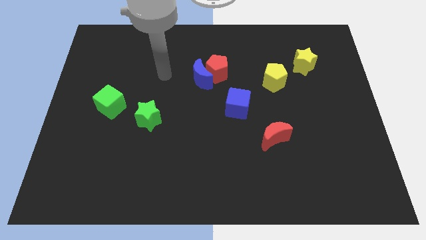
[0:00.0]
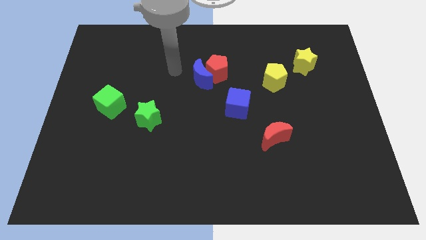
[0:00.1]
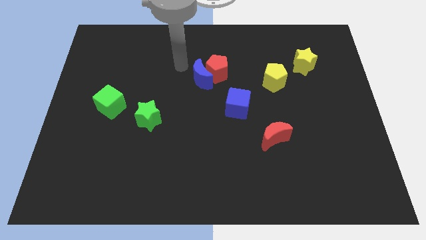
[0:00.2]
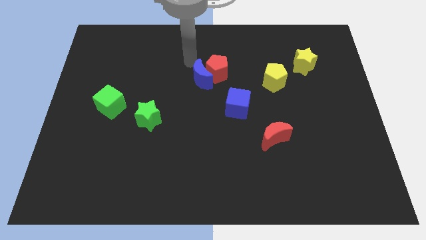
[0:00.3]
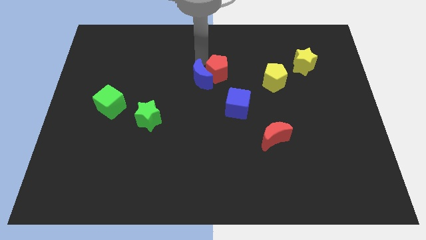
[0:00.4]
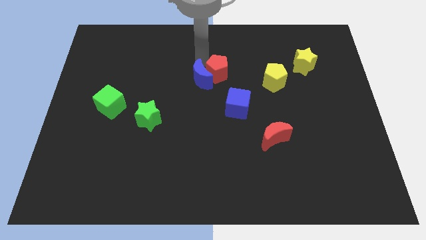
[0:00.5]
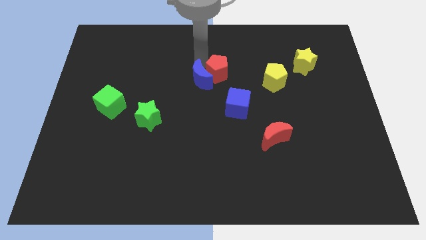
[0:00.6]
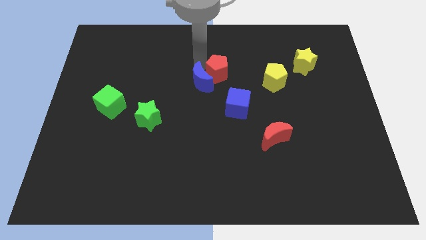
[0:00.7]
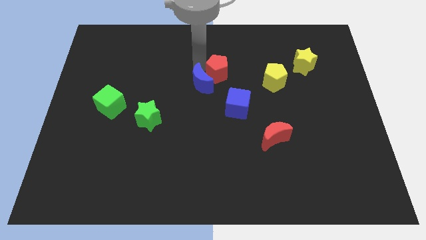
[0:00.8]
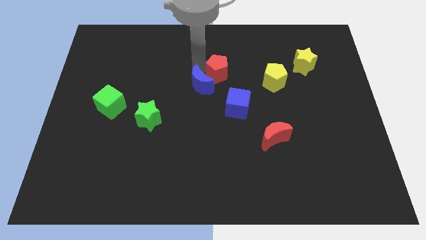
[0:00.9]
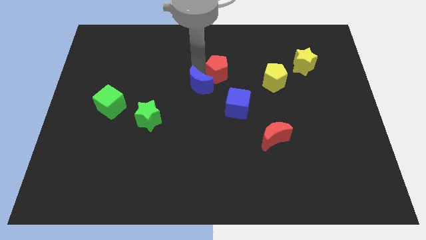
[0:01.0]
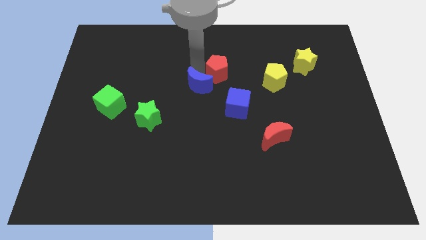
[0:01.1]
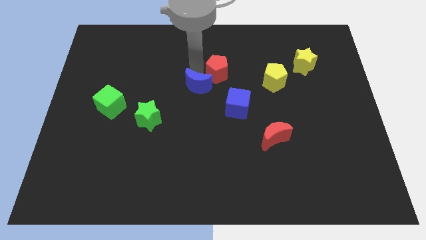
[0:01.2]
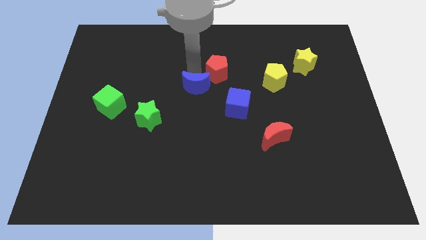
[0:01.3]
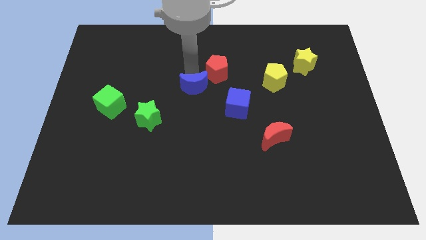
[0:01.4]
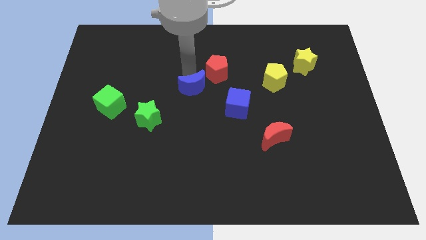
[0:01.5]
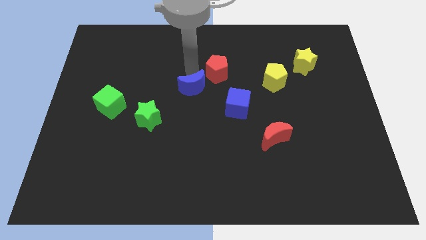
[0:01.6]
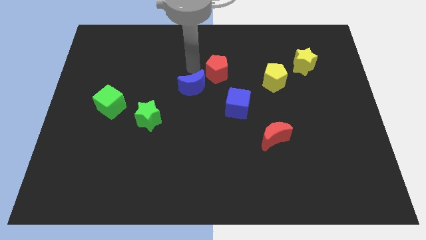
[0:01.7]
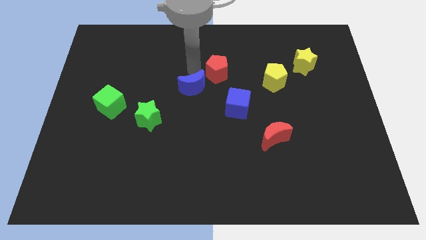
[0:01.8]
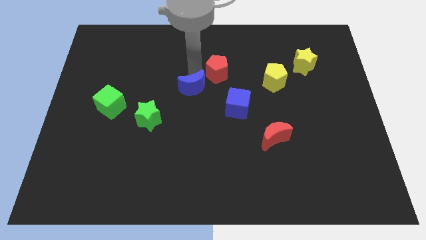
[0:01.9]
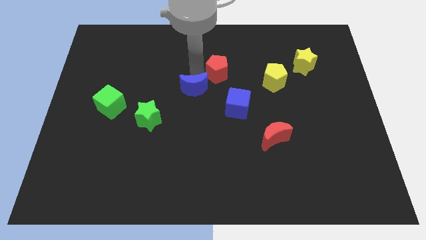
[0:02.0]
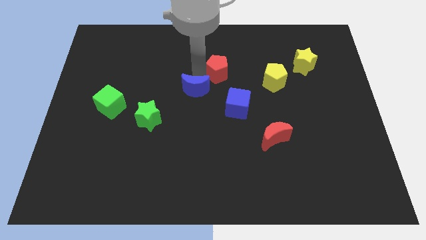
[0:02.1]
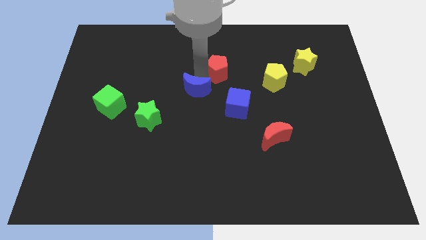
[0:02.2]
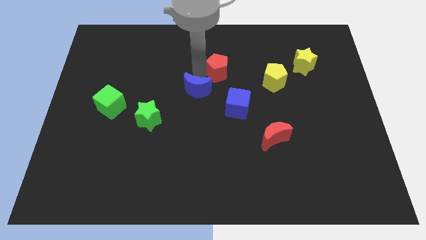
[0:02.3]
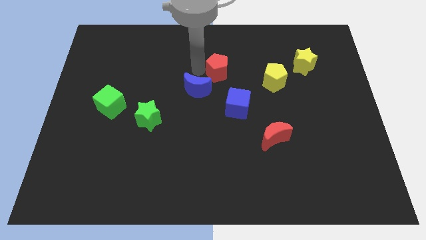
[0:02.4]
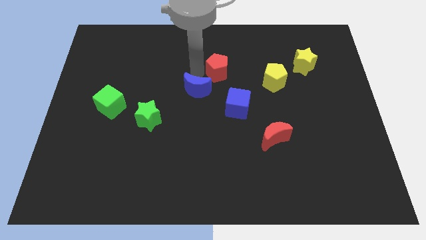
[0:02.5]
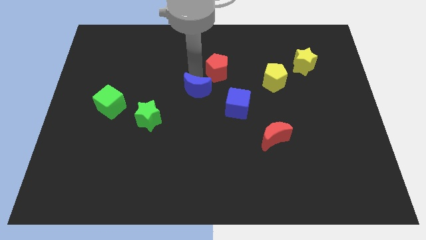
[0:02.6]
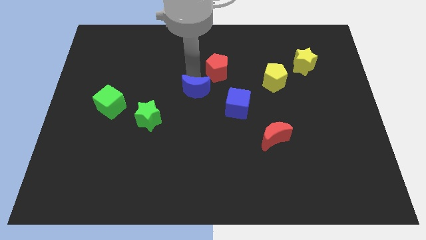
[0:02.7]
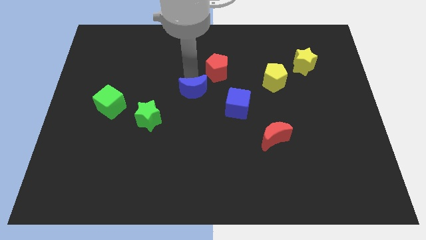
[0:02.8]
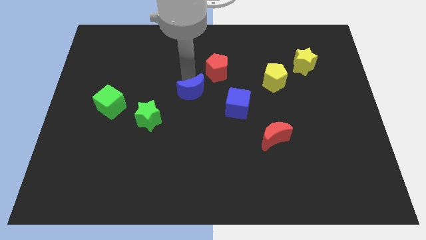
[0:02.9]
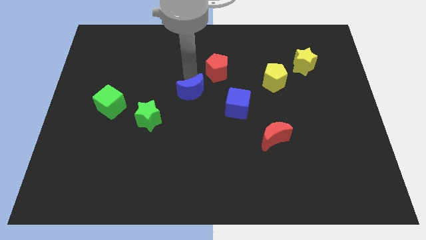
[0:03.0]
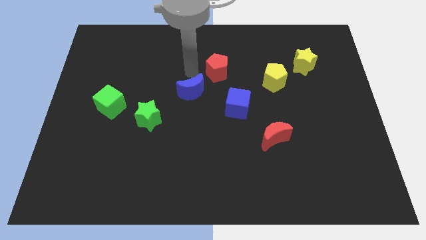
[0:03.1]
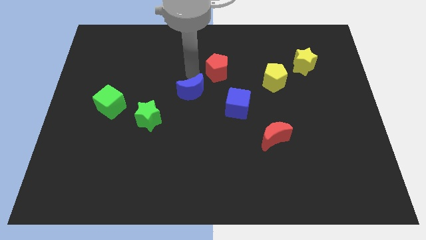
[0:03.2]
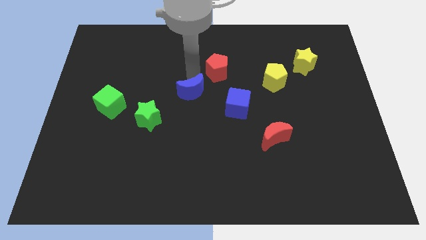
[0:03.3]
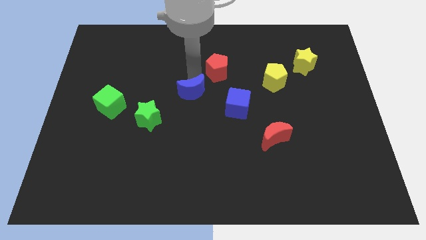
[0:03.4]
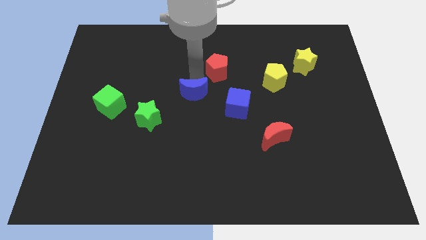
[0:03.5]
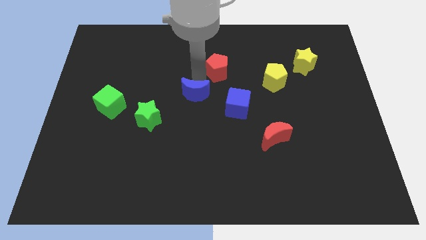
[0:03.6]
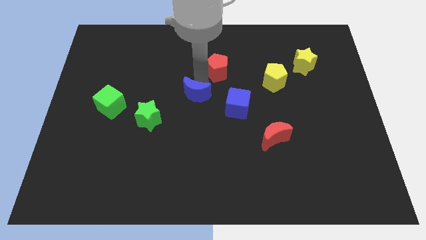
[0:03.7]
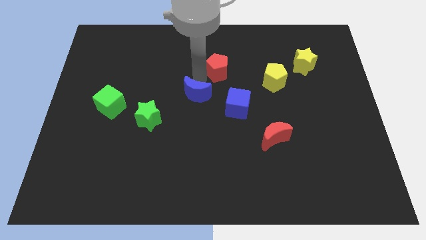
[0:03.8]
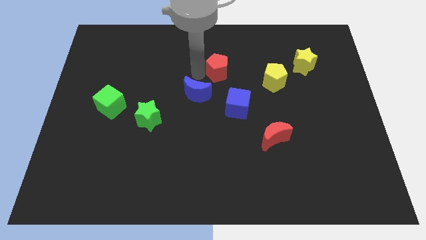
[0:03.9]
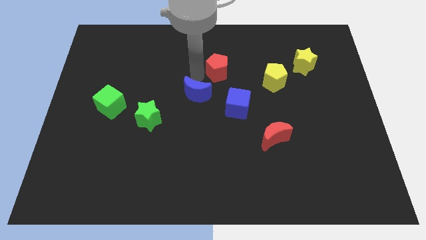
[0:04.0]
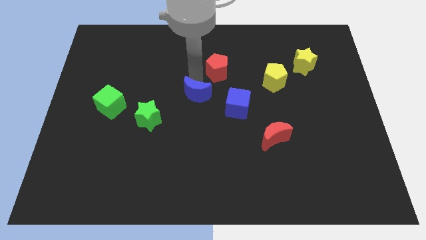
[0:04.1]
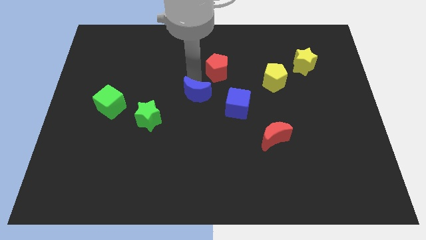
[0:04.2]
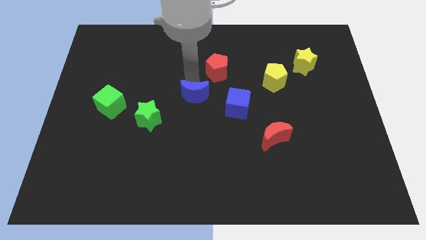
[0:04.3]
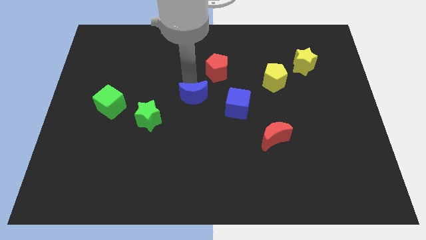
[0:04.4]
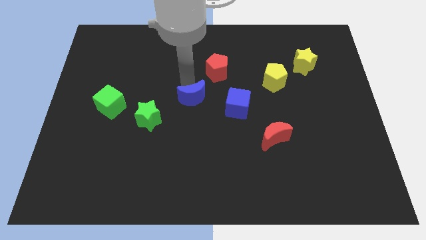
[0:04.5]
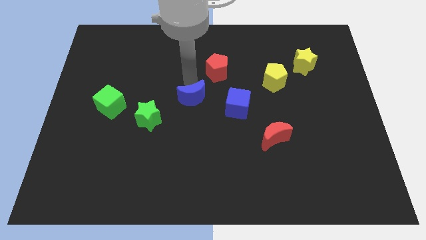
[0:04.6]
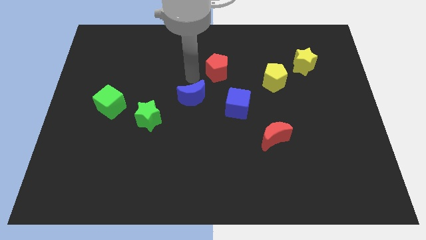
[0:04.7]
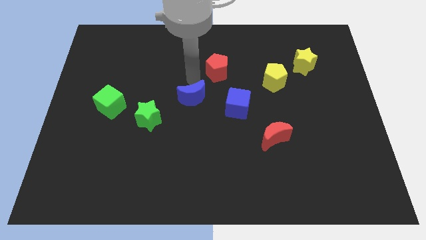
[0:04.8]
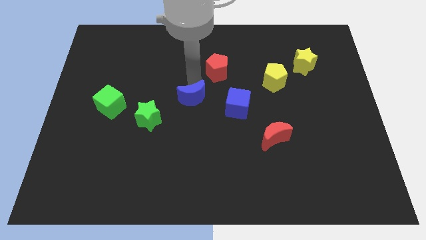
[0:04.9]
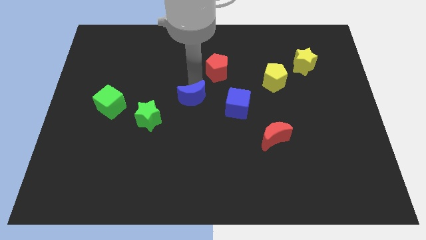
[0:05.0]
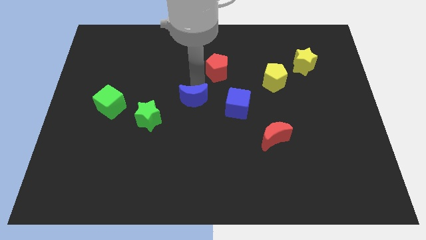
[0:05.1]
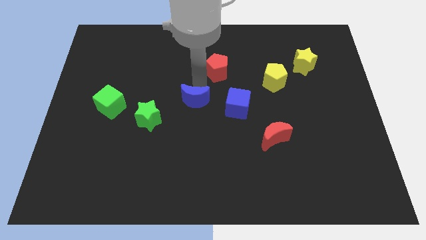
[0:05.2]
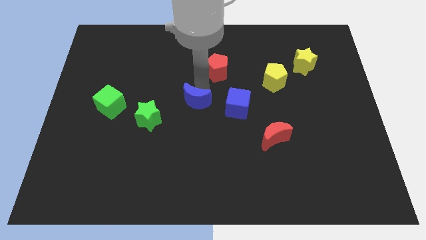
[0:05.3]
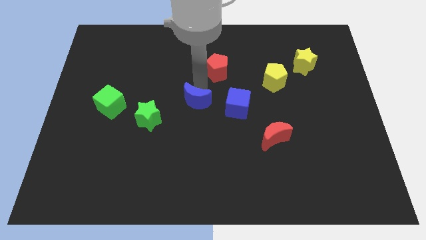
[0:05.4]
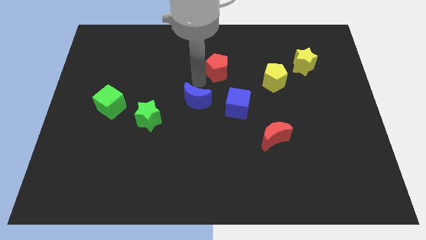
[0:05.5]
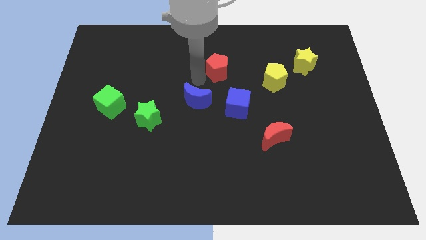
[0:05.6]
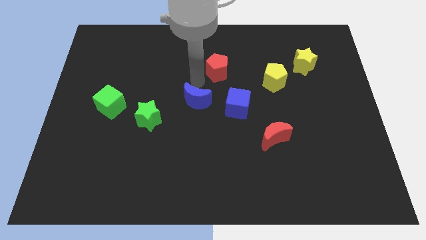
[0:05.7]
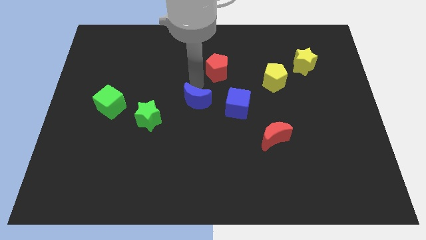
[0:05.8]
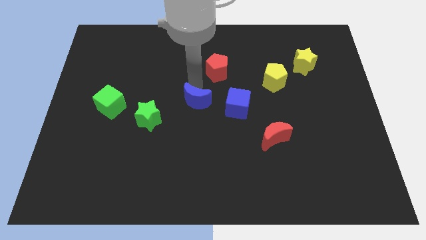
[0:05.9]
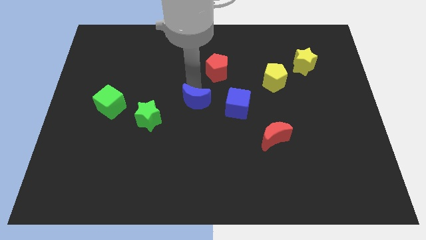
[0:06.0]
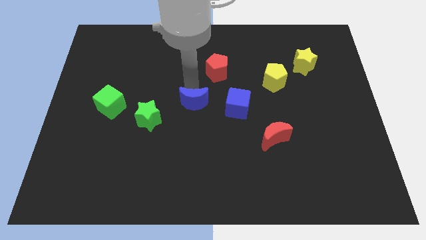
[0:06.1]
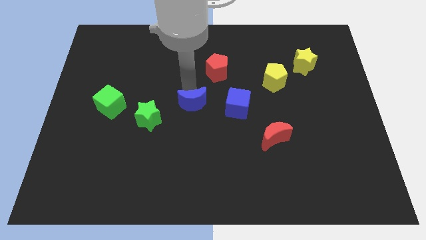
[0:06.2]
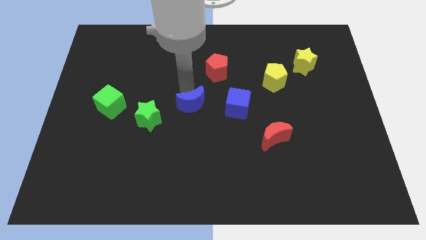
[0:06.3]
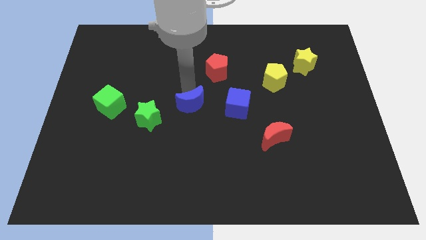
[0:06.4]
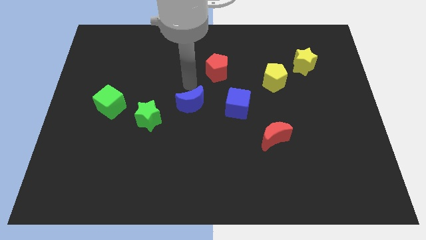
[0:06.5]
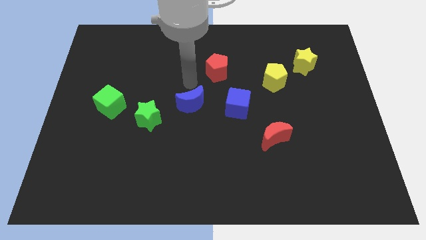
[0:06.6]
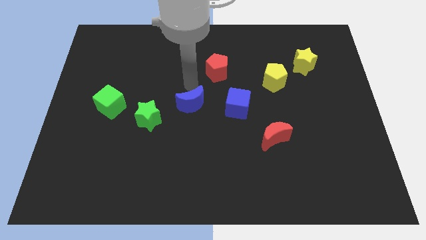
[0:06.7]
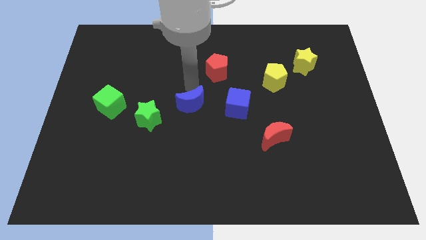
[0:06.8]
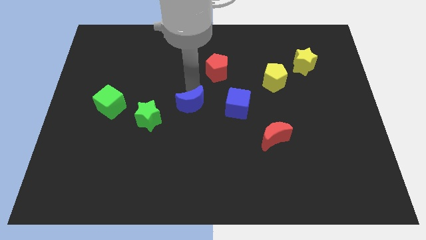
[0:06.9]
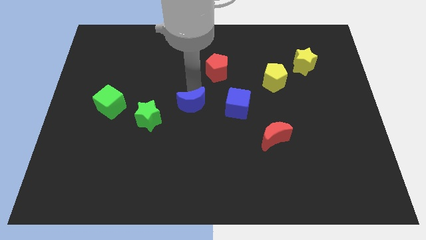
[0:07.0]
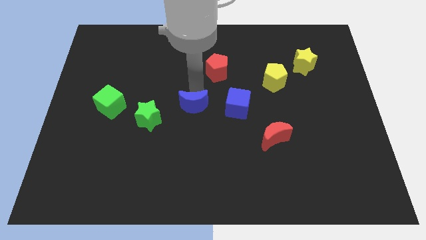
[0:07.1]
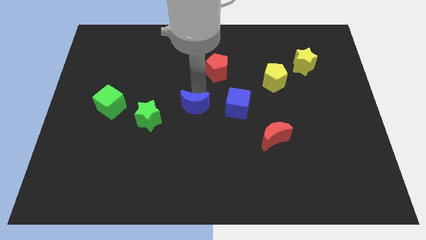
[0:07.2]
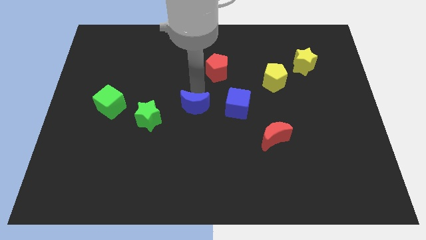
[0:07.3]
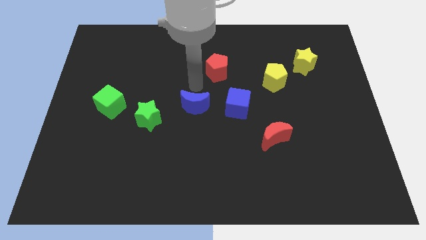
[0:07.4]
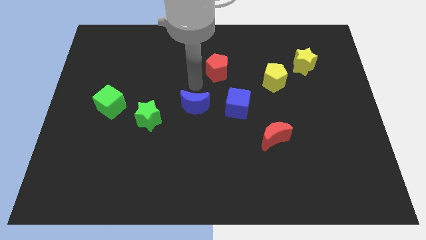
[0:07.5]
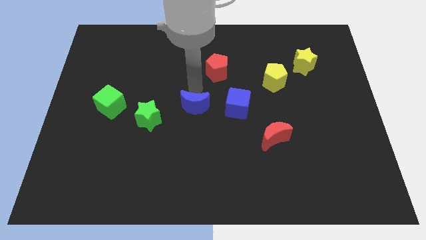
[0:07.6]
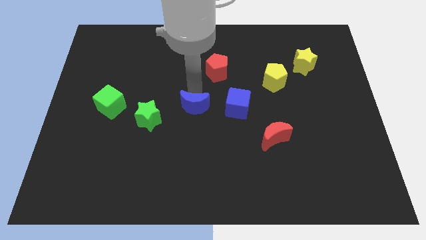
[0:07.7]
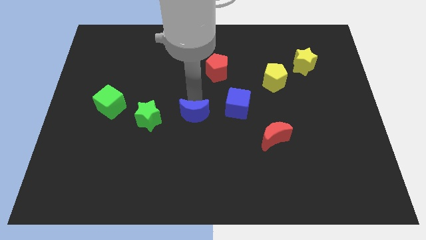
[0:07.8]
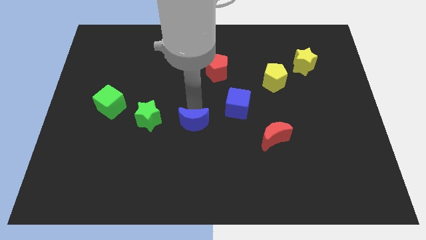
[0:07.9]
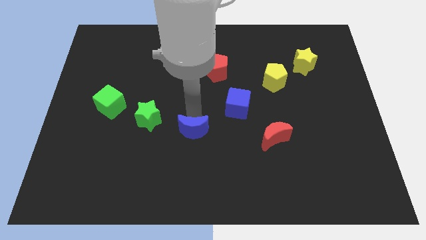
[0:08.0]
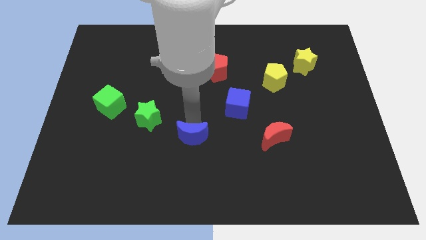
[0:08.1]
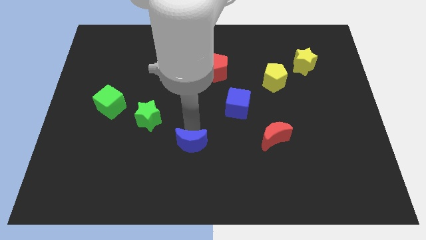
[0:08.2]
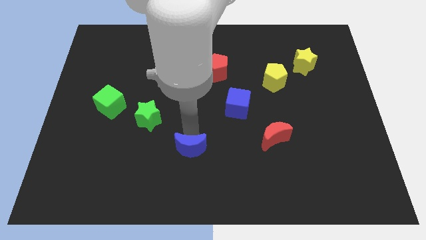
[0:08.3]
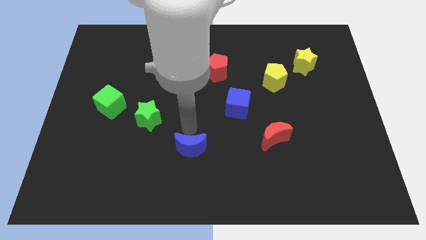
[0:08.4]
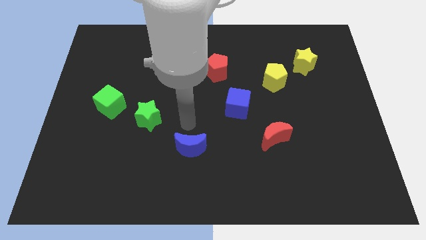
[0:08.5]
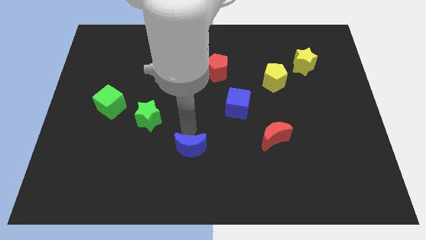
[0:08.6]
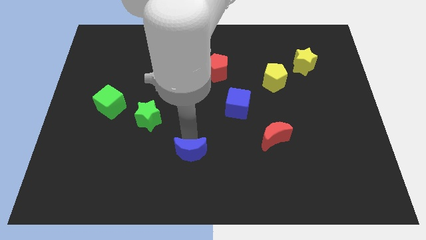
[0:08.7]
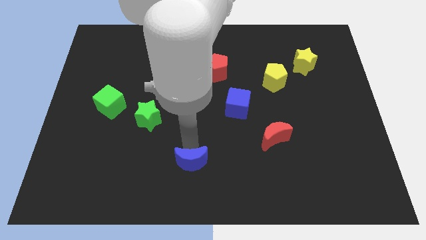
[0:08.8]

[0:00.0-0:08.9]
move the blue moon to the bottom
